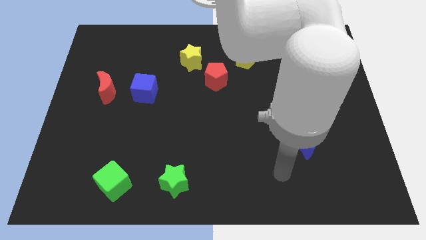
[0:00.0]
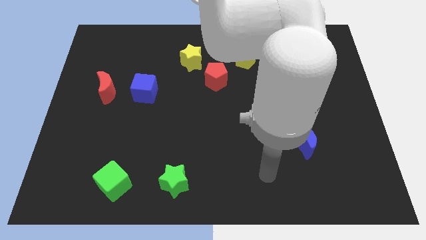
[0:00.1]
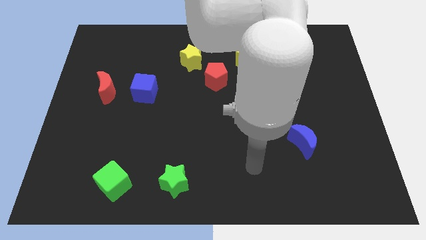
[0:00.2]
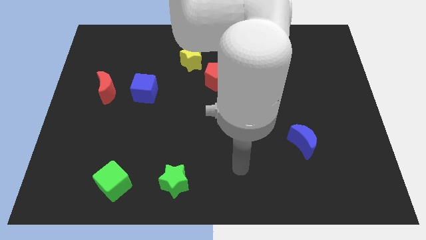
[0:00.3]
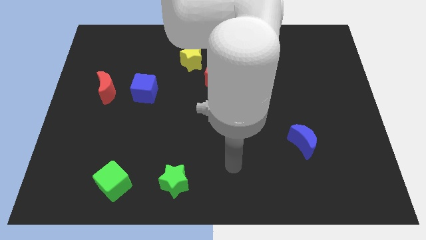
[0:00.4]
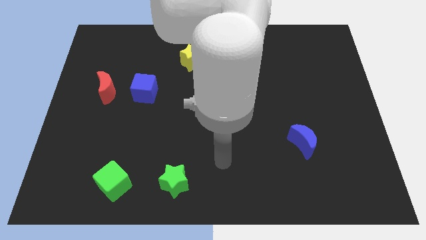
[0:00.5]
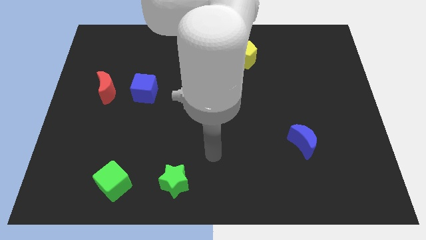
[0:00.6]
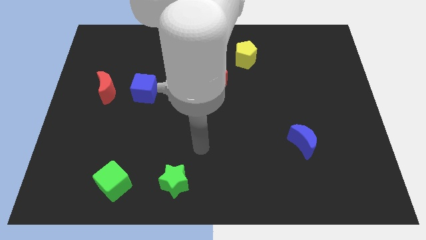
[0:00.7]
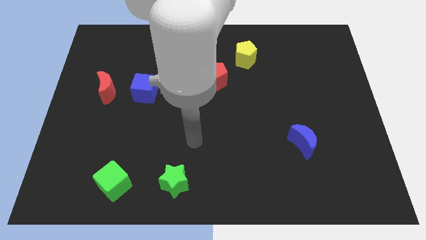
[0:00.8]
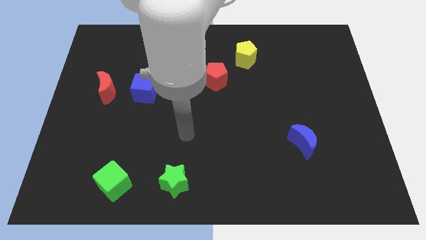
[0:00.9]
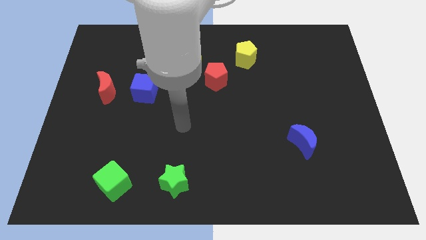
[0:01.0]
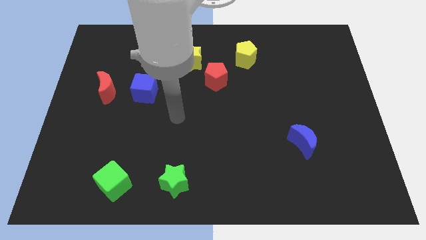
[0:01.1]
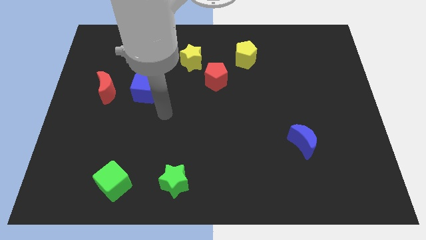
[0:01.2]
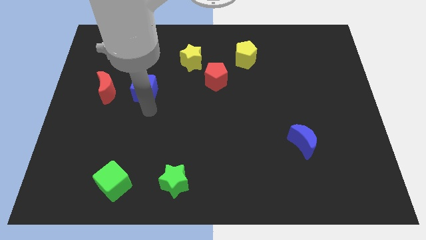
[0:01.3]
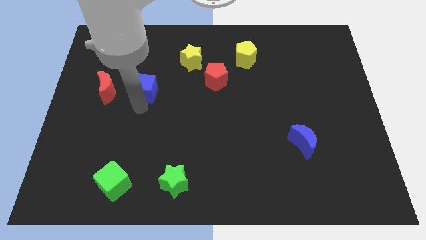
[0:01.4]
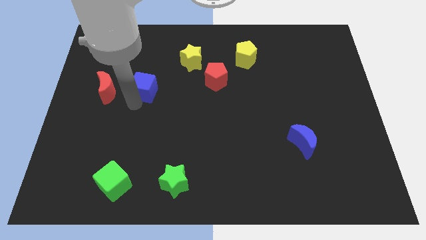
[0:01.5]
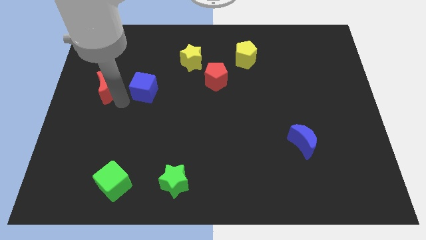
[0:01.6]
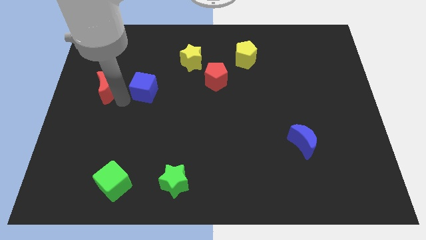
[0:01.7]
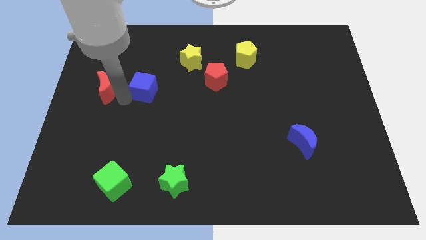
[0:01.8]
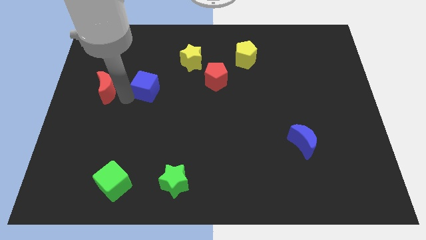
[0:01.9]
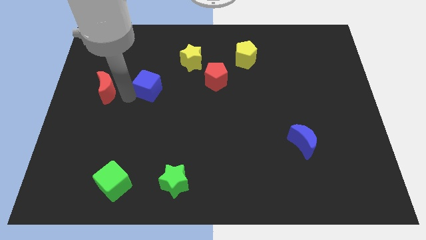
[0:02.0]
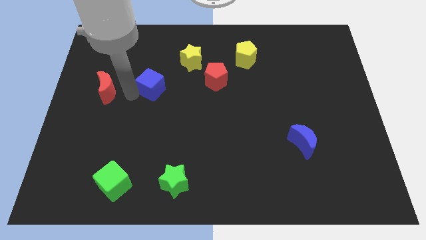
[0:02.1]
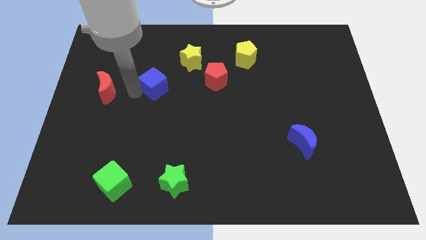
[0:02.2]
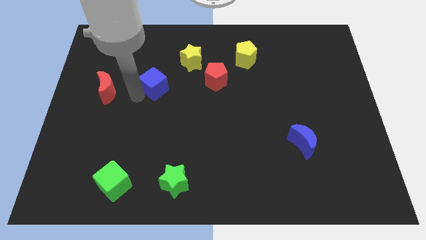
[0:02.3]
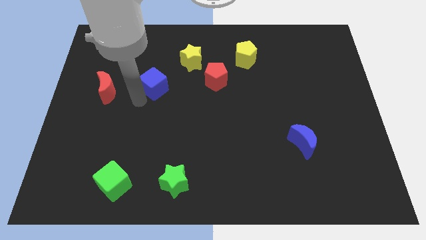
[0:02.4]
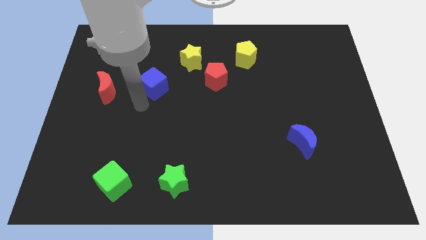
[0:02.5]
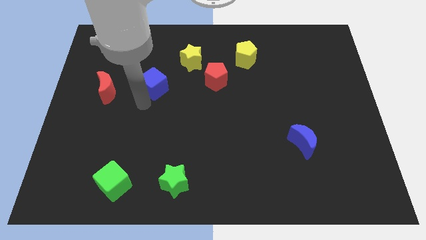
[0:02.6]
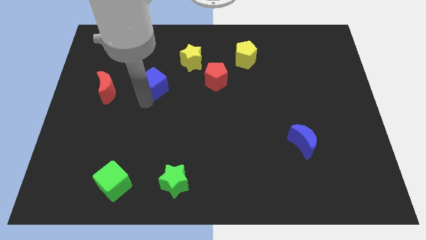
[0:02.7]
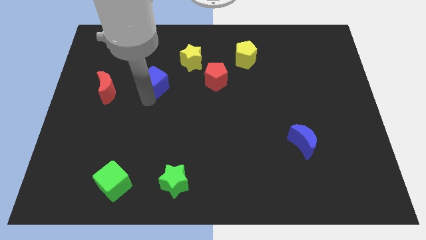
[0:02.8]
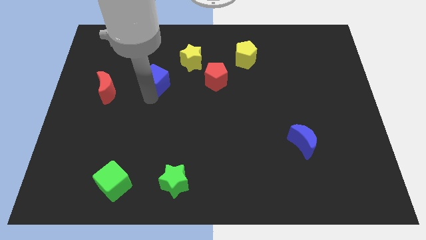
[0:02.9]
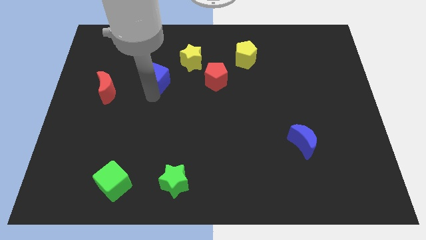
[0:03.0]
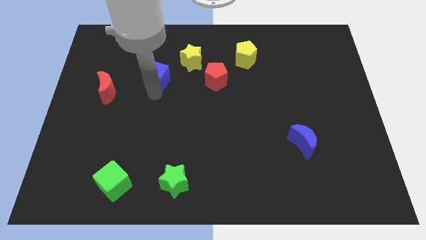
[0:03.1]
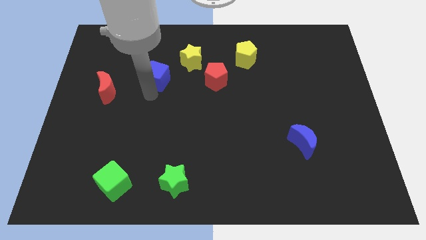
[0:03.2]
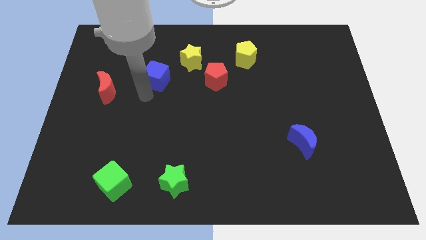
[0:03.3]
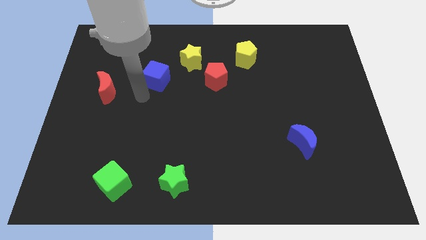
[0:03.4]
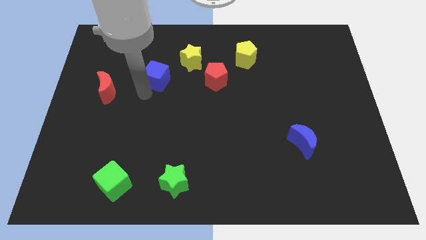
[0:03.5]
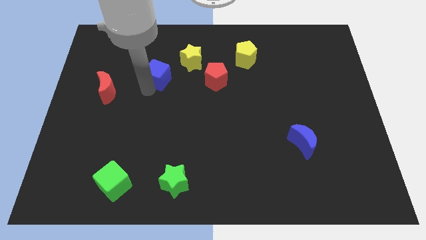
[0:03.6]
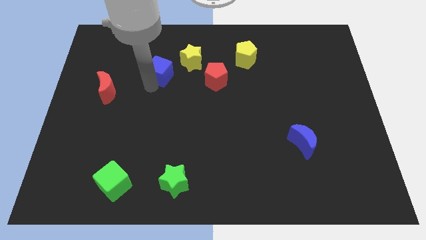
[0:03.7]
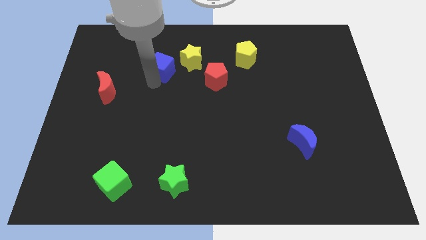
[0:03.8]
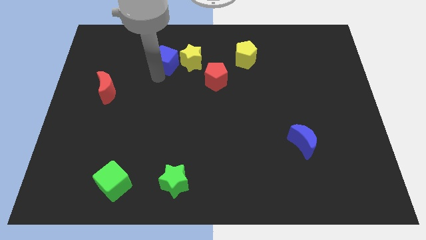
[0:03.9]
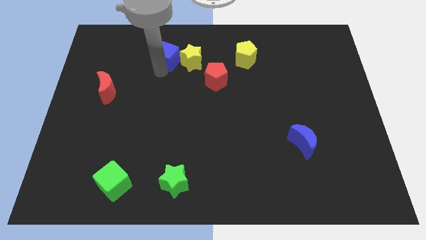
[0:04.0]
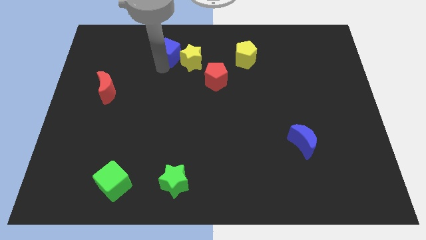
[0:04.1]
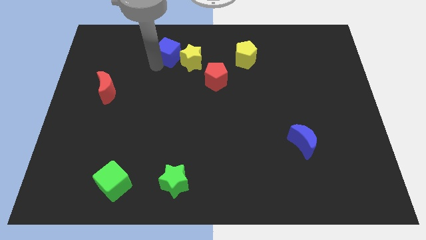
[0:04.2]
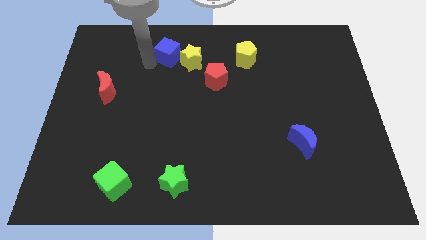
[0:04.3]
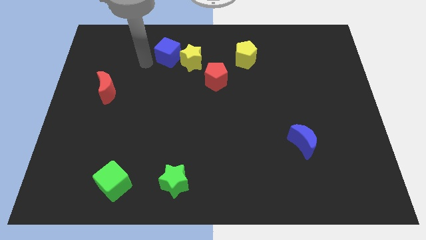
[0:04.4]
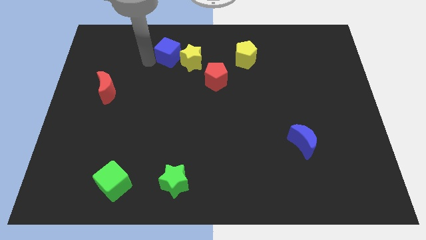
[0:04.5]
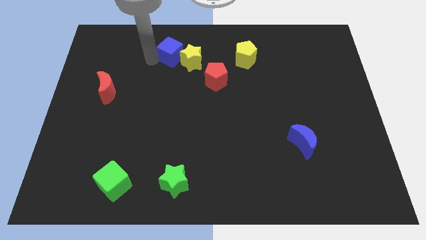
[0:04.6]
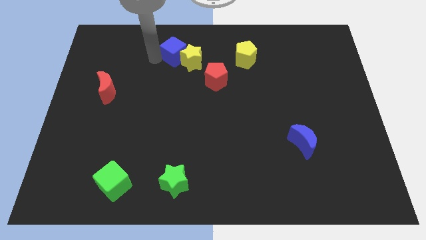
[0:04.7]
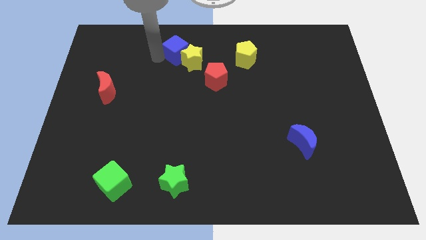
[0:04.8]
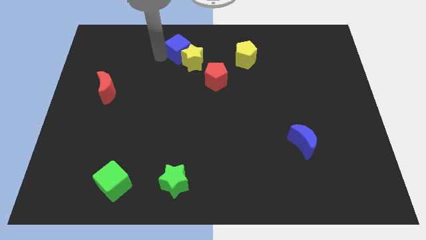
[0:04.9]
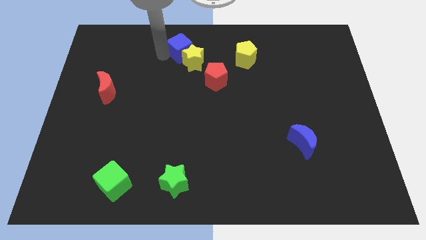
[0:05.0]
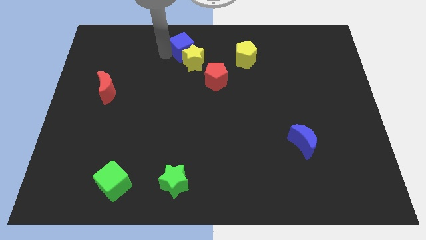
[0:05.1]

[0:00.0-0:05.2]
move the blue cube to the top

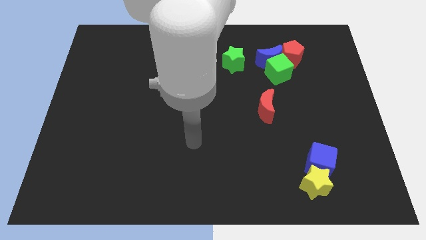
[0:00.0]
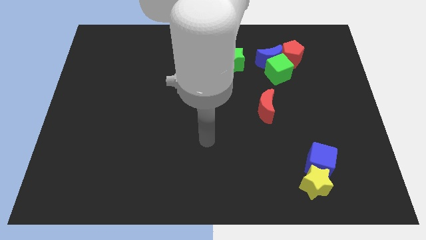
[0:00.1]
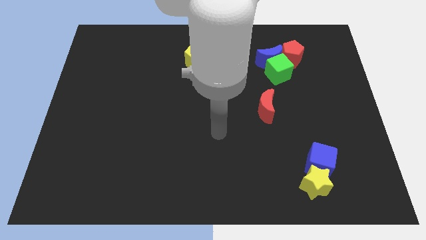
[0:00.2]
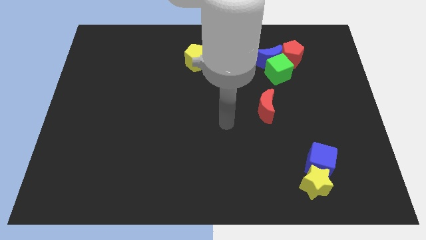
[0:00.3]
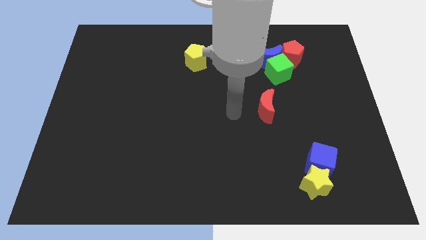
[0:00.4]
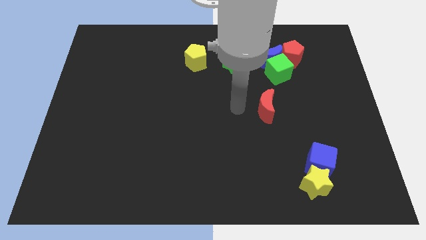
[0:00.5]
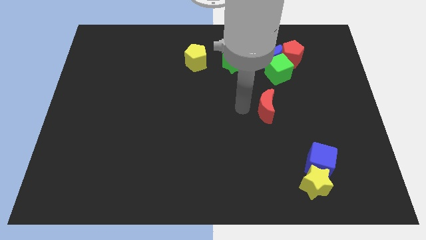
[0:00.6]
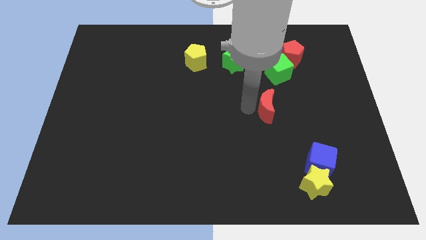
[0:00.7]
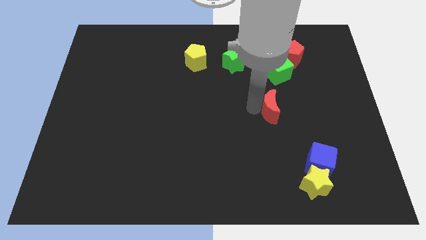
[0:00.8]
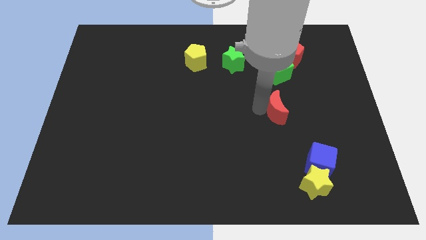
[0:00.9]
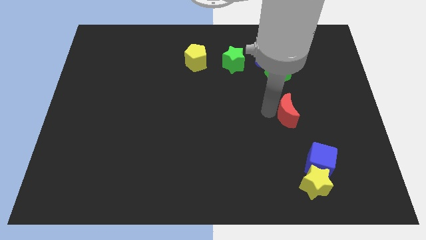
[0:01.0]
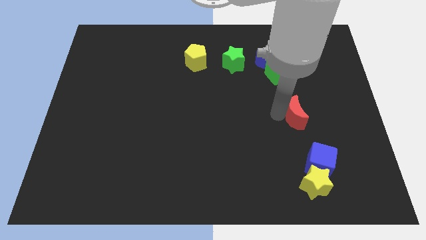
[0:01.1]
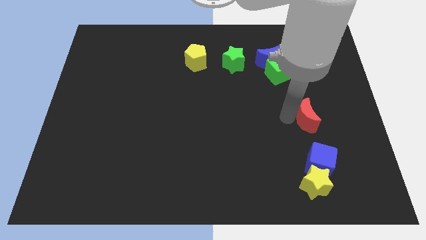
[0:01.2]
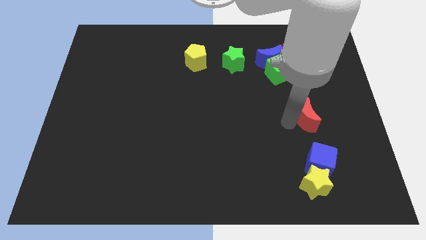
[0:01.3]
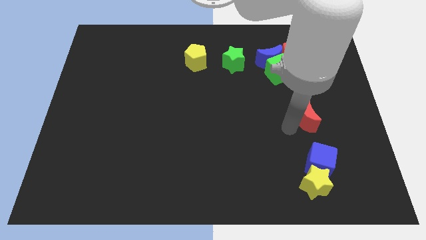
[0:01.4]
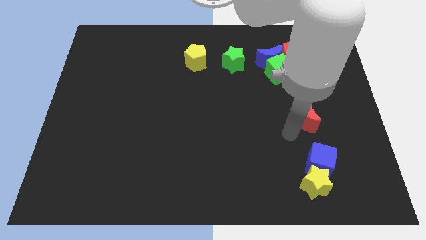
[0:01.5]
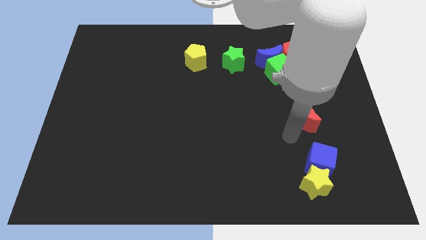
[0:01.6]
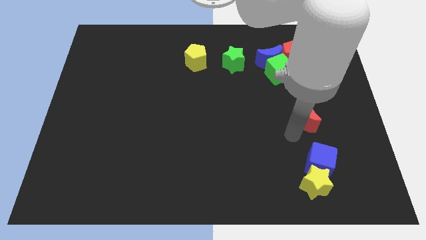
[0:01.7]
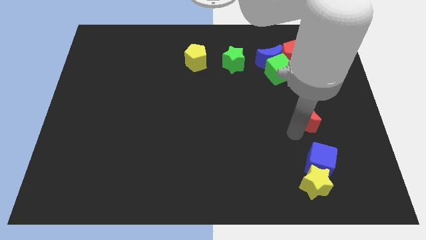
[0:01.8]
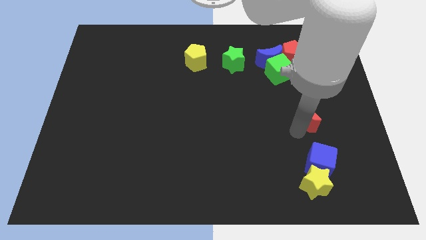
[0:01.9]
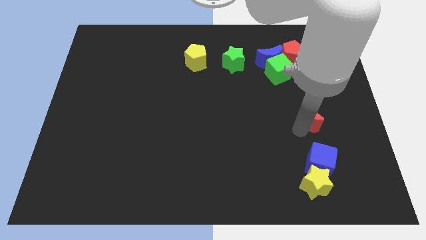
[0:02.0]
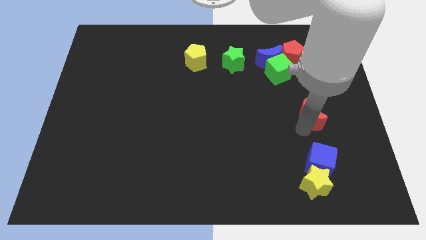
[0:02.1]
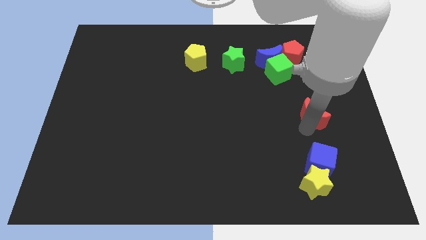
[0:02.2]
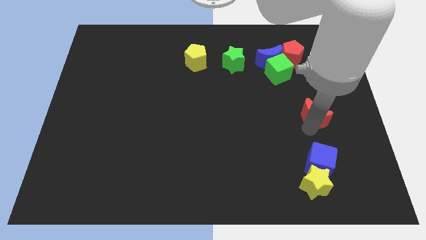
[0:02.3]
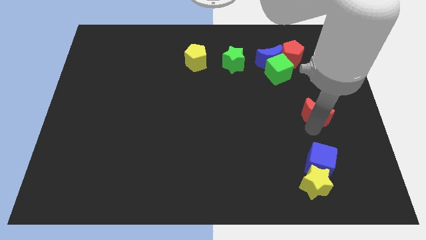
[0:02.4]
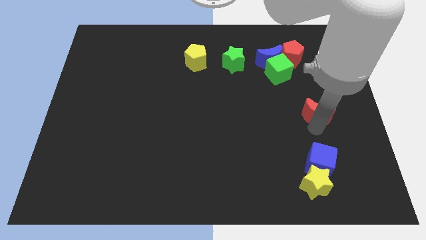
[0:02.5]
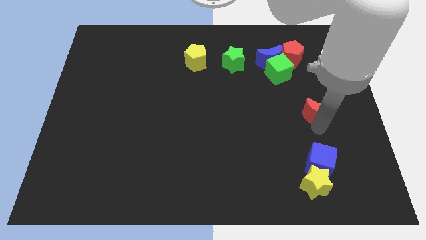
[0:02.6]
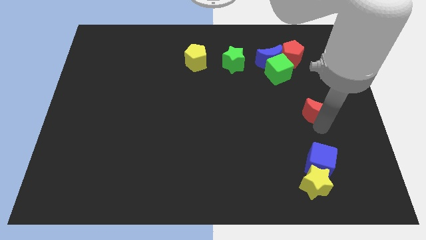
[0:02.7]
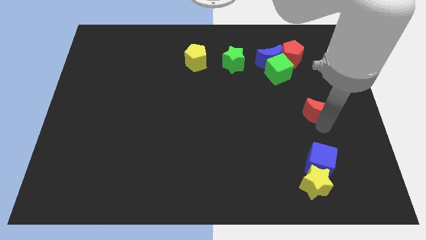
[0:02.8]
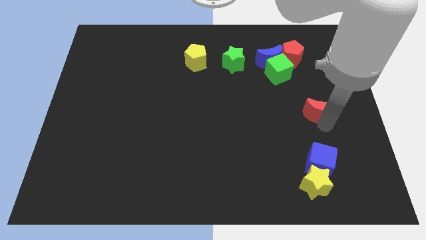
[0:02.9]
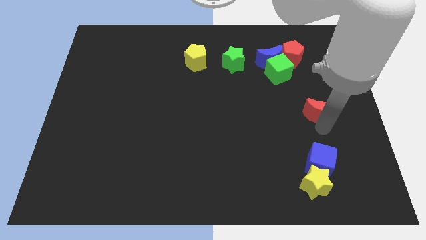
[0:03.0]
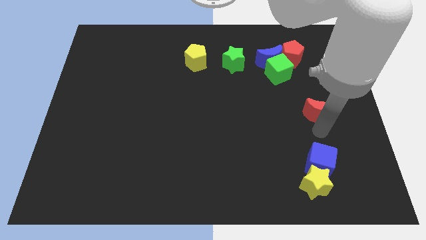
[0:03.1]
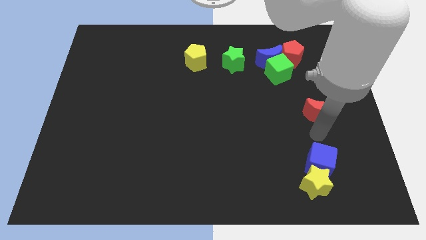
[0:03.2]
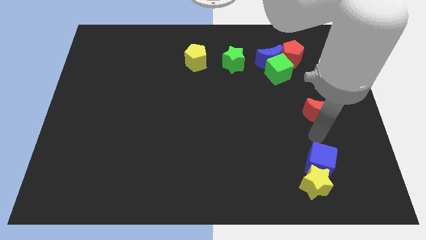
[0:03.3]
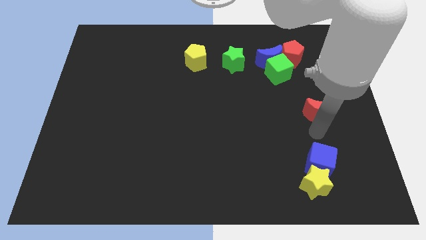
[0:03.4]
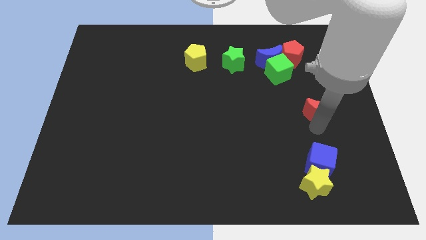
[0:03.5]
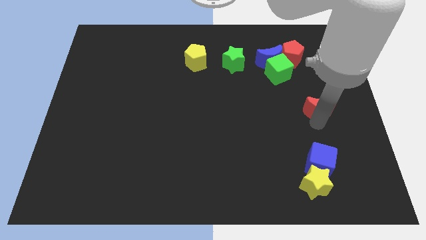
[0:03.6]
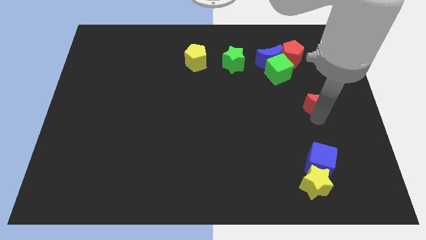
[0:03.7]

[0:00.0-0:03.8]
move the red moon to the right side
